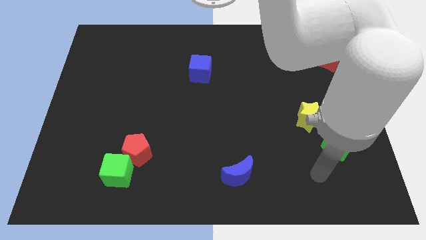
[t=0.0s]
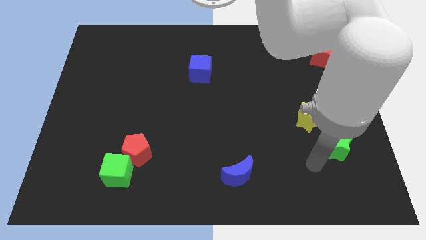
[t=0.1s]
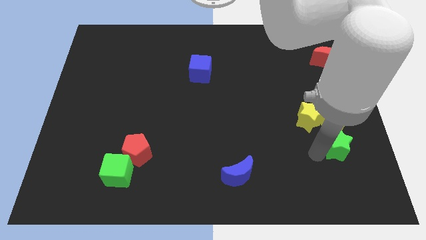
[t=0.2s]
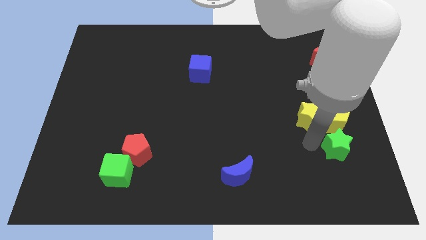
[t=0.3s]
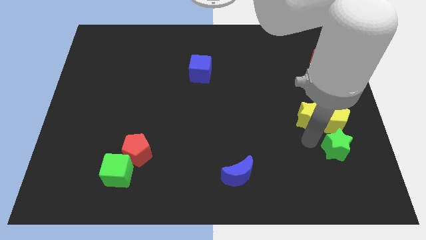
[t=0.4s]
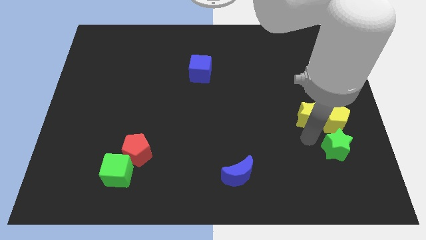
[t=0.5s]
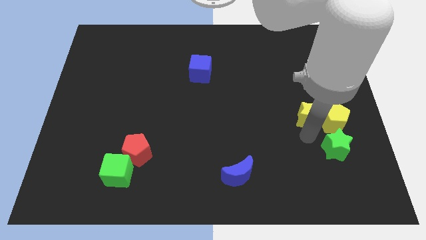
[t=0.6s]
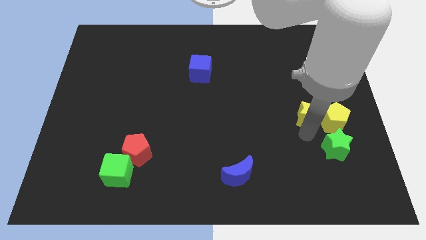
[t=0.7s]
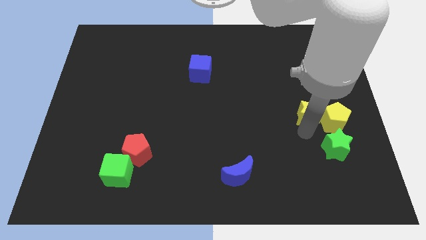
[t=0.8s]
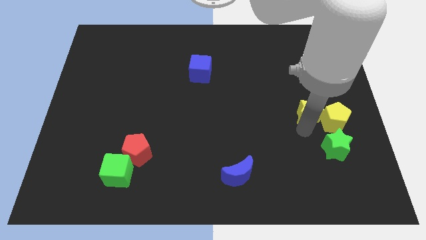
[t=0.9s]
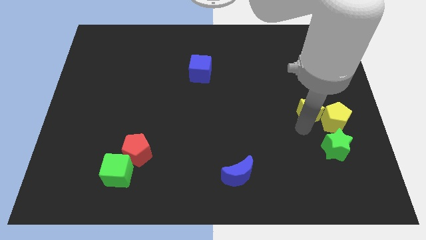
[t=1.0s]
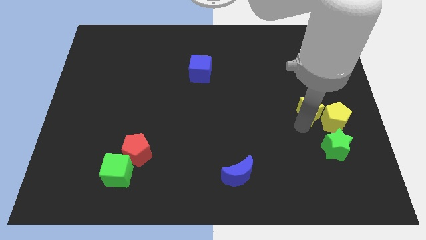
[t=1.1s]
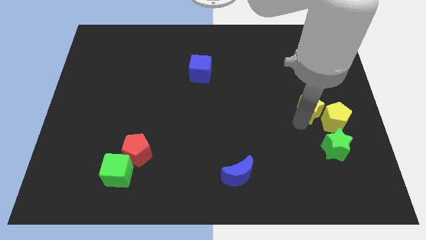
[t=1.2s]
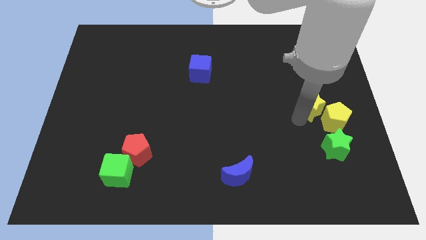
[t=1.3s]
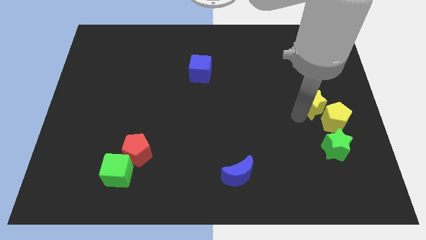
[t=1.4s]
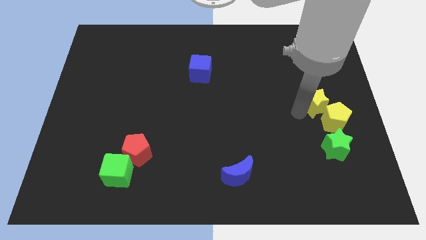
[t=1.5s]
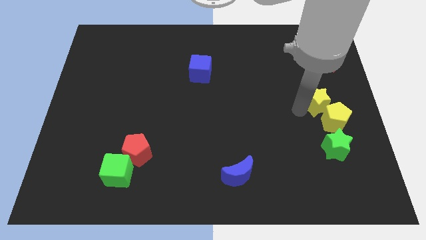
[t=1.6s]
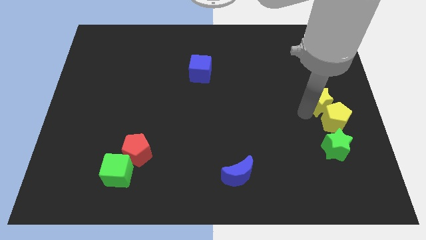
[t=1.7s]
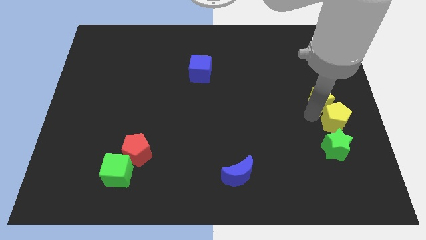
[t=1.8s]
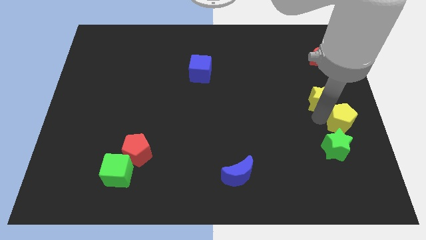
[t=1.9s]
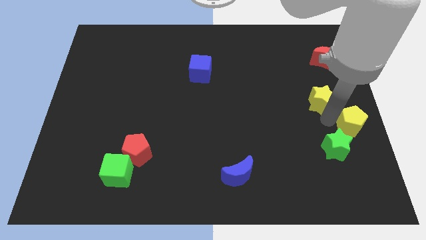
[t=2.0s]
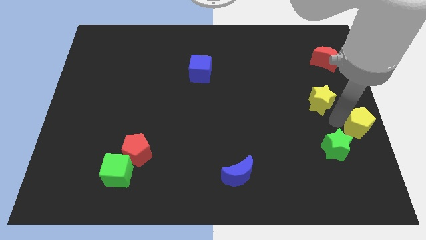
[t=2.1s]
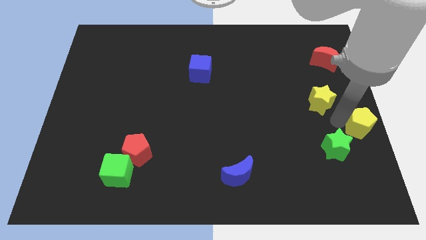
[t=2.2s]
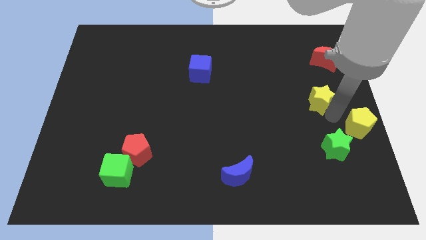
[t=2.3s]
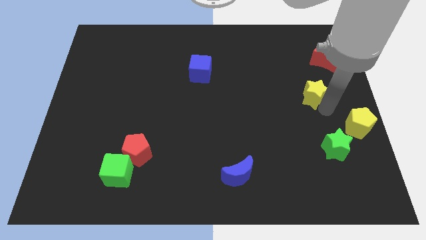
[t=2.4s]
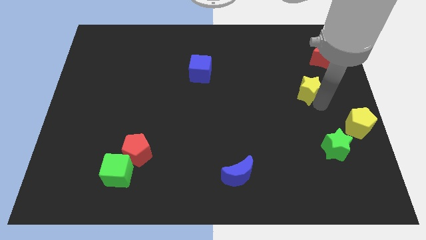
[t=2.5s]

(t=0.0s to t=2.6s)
slide the yellow star up a little bit

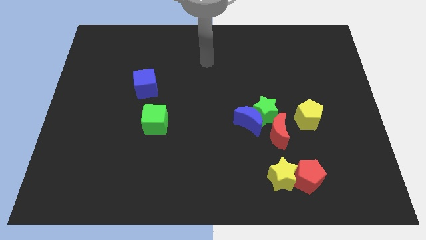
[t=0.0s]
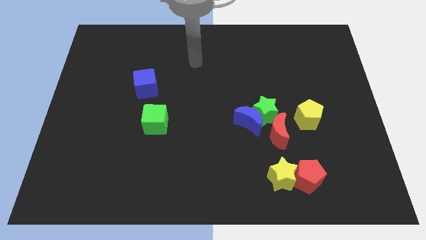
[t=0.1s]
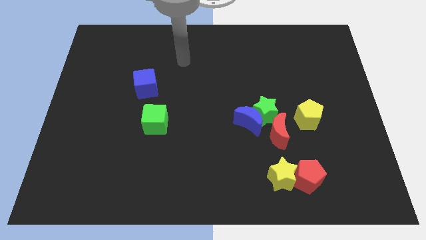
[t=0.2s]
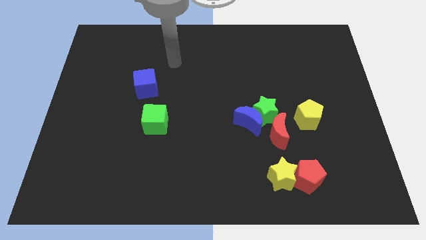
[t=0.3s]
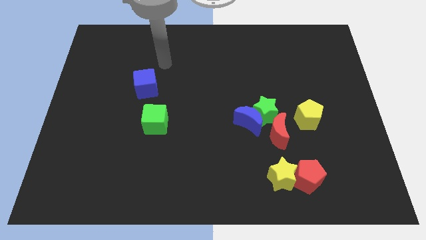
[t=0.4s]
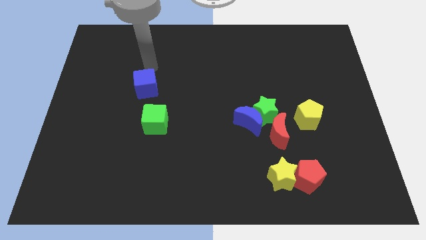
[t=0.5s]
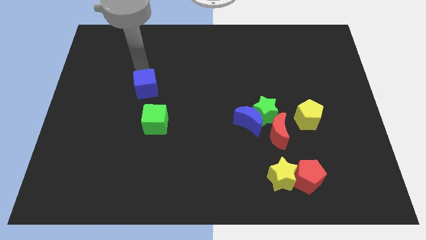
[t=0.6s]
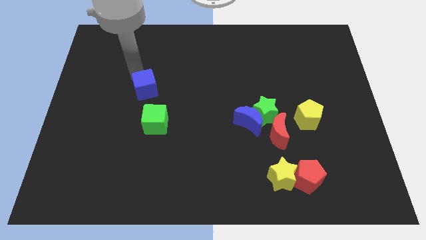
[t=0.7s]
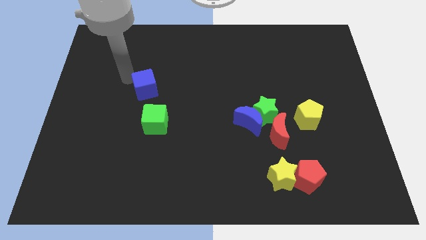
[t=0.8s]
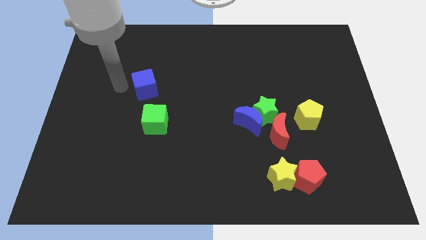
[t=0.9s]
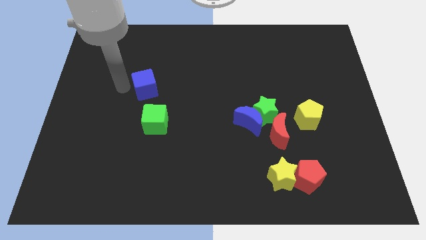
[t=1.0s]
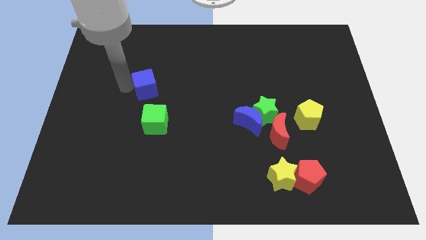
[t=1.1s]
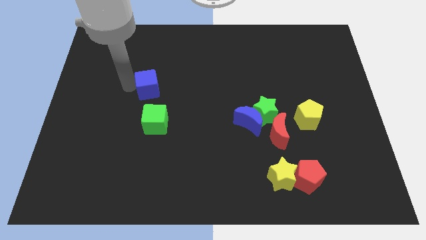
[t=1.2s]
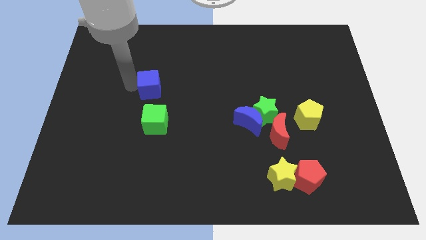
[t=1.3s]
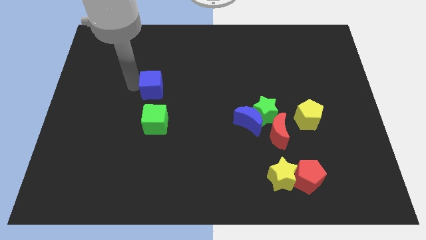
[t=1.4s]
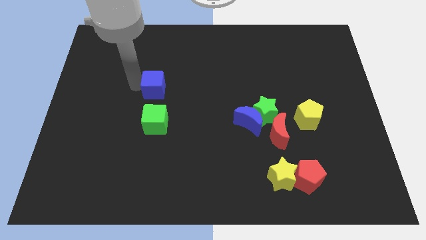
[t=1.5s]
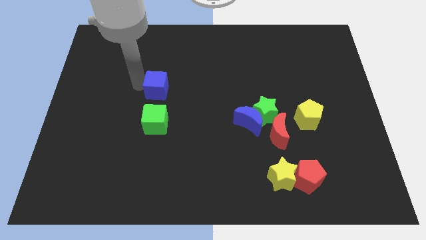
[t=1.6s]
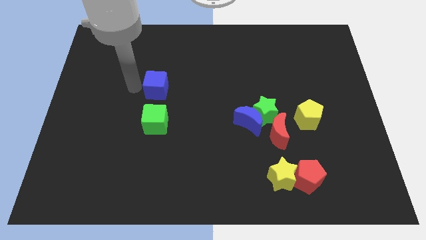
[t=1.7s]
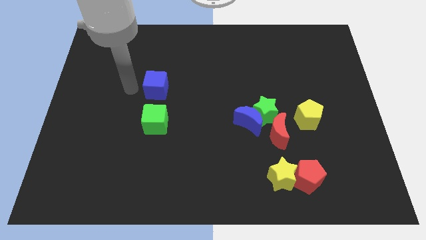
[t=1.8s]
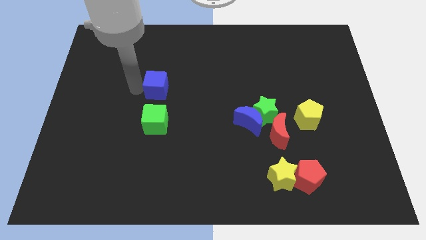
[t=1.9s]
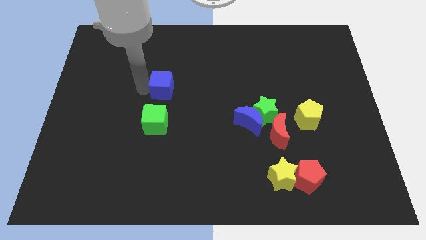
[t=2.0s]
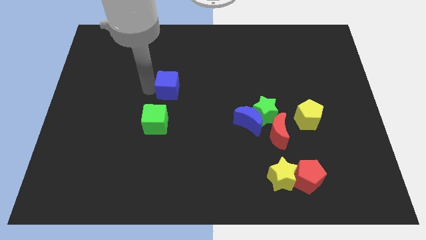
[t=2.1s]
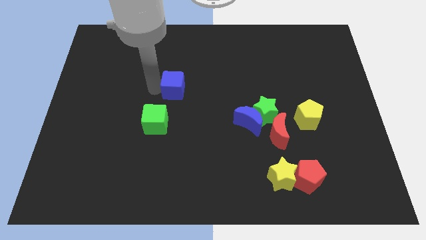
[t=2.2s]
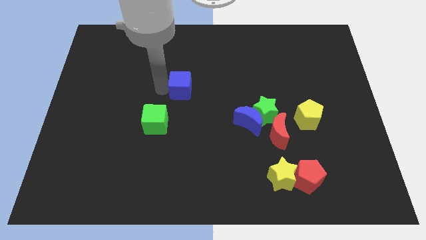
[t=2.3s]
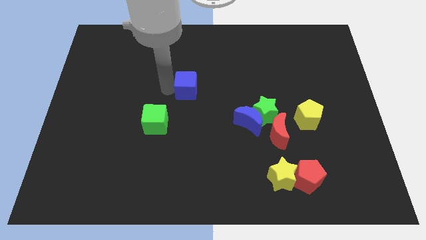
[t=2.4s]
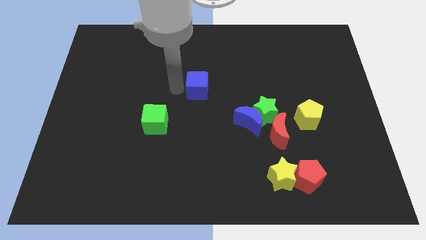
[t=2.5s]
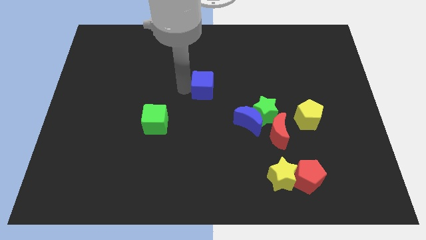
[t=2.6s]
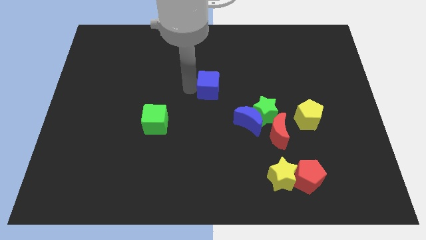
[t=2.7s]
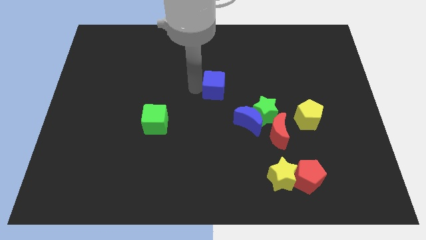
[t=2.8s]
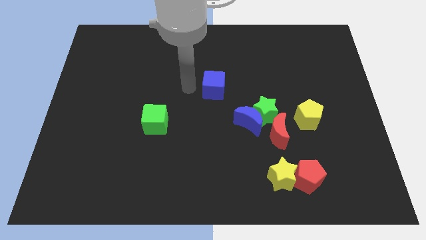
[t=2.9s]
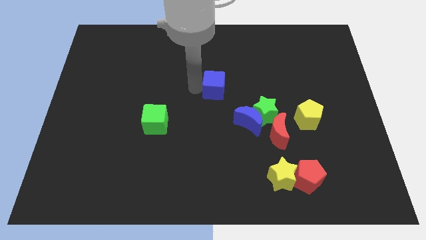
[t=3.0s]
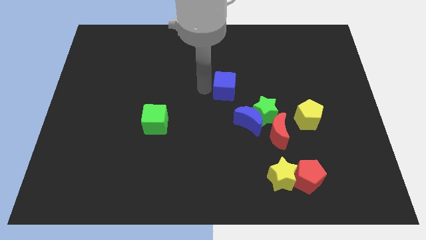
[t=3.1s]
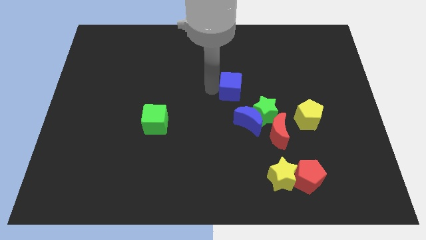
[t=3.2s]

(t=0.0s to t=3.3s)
slide the blue cube to the right

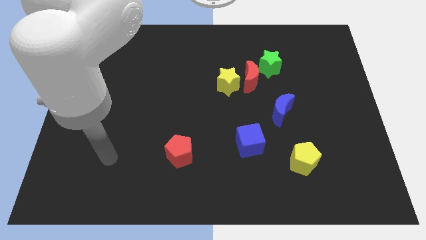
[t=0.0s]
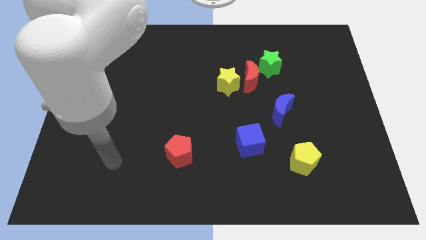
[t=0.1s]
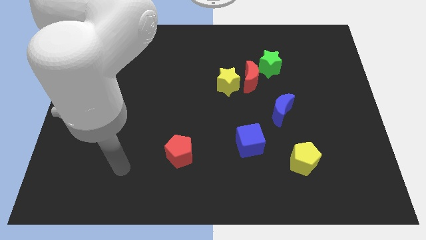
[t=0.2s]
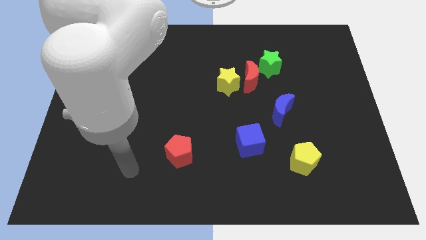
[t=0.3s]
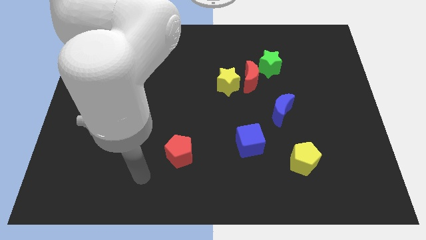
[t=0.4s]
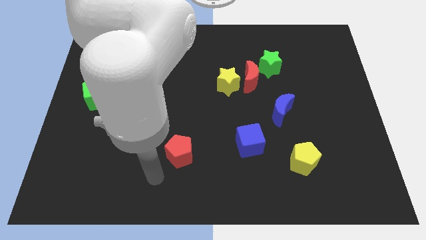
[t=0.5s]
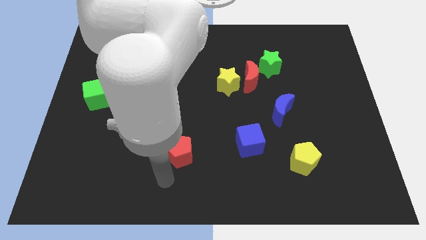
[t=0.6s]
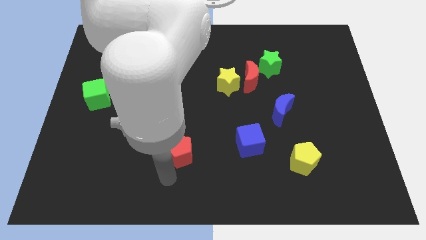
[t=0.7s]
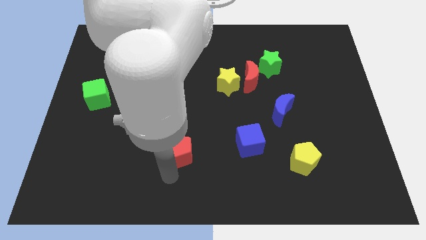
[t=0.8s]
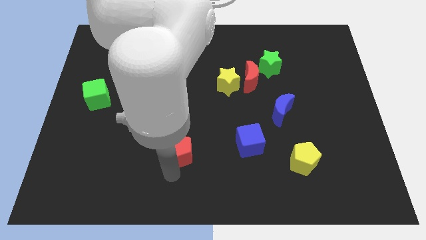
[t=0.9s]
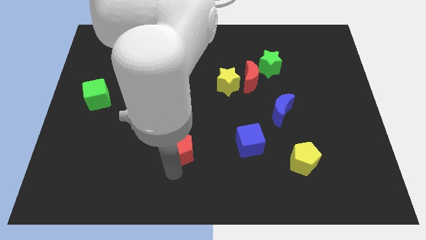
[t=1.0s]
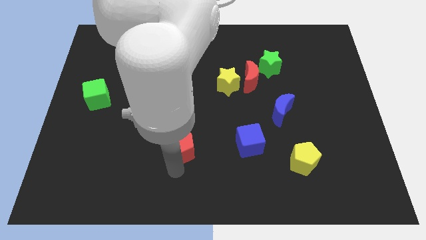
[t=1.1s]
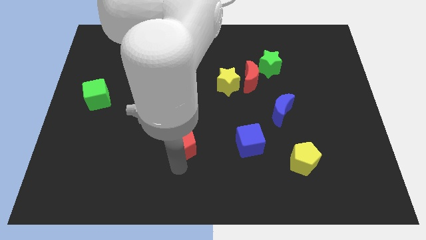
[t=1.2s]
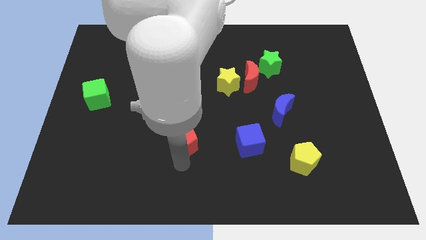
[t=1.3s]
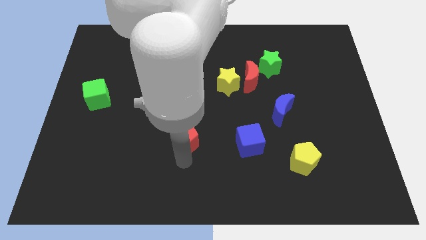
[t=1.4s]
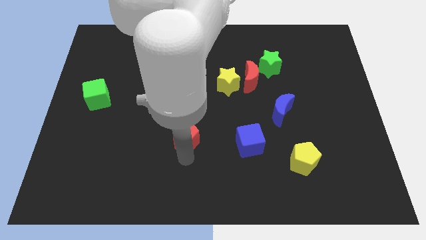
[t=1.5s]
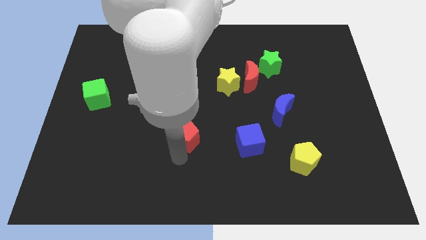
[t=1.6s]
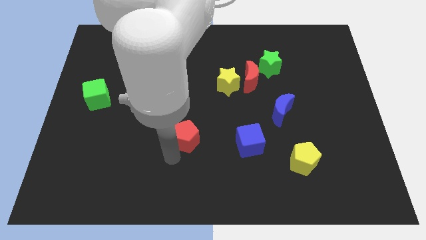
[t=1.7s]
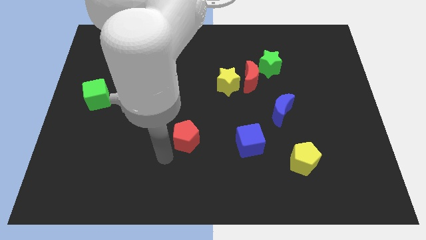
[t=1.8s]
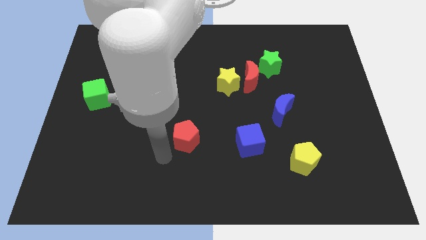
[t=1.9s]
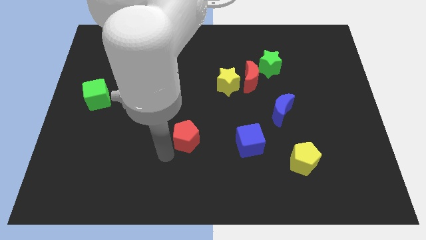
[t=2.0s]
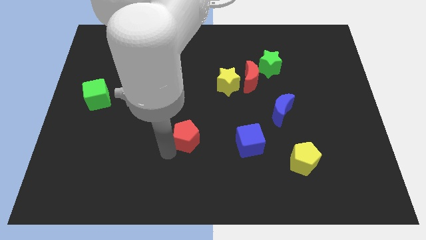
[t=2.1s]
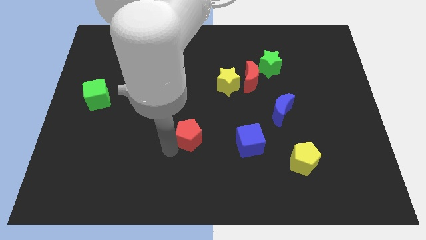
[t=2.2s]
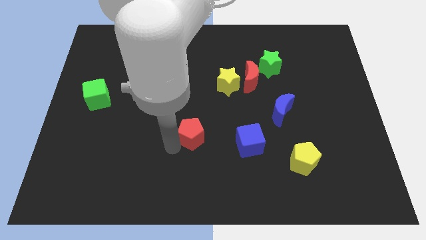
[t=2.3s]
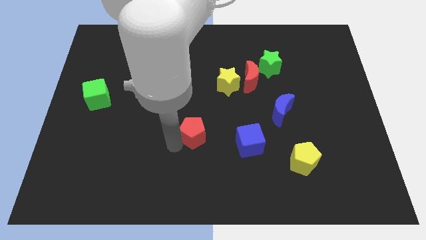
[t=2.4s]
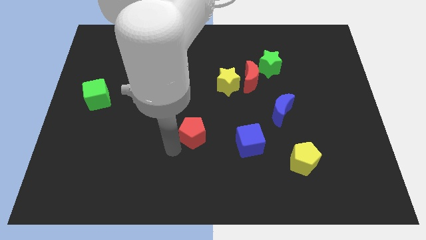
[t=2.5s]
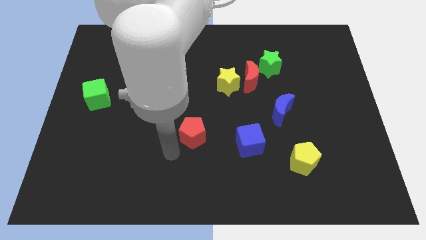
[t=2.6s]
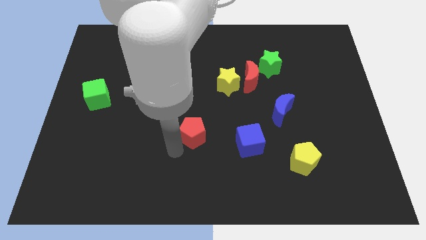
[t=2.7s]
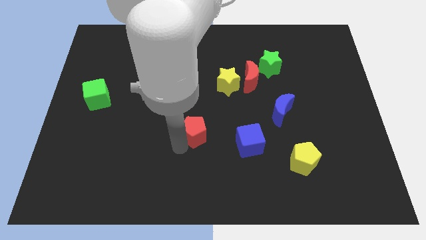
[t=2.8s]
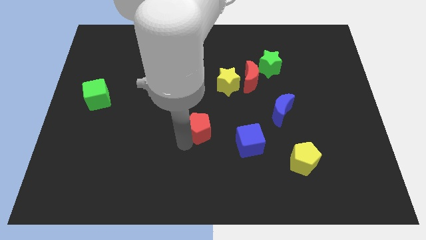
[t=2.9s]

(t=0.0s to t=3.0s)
move the red pentagon up and to the right diagonally a little bit
